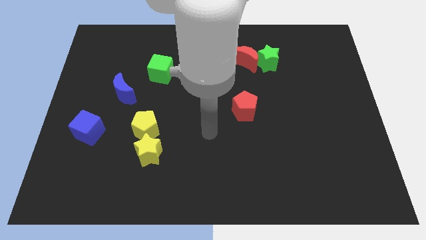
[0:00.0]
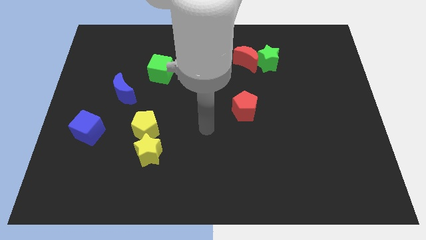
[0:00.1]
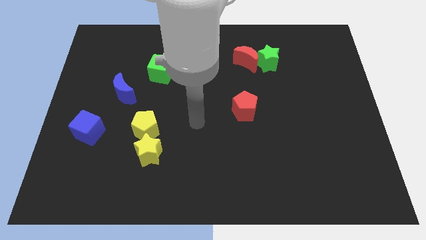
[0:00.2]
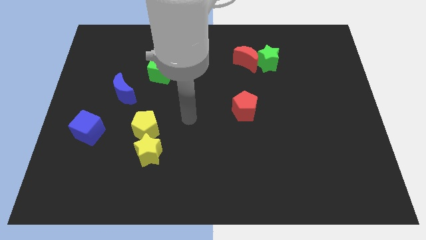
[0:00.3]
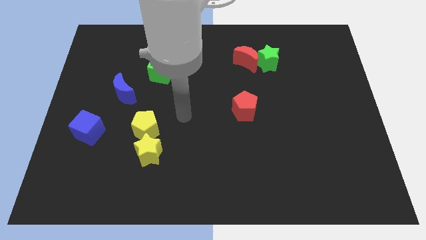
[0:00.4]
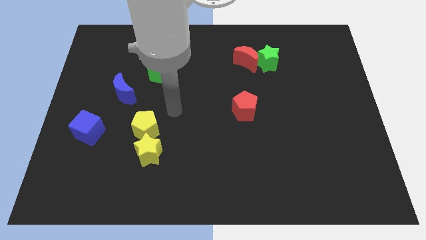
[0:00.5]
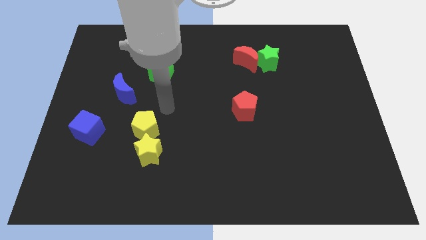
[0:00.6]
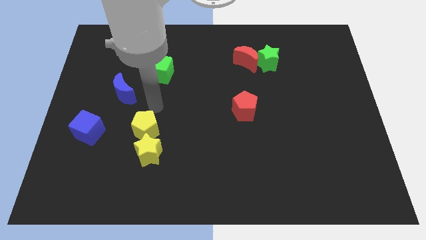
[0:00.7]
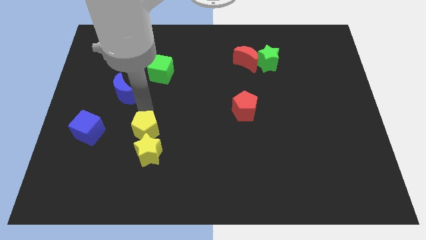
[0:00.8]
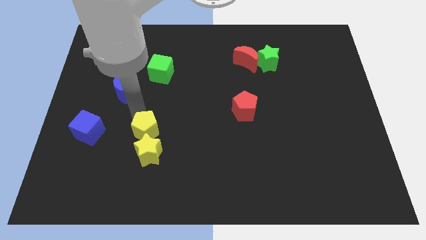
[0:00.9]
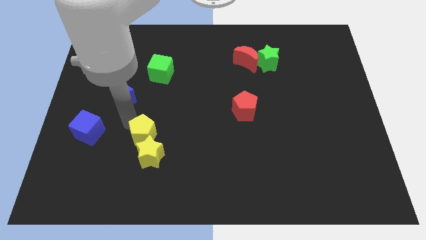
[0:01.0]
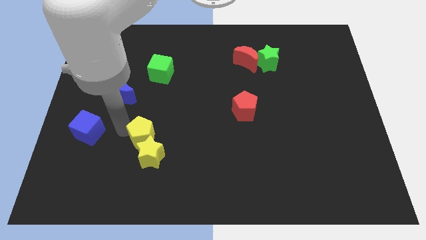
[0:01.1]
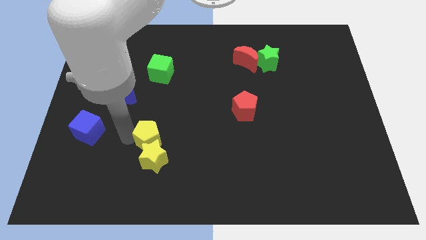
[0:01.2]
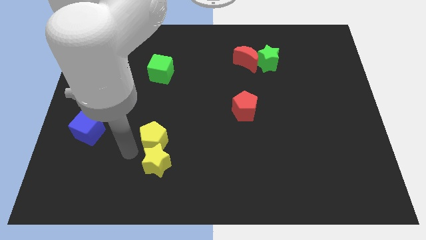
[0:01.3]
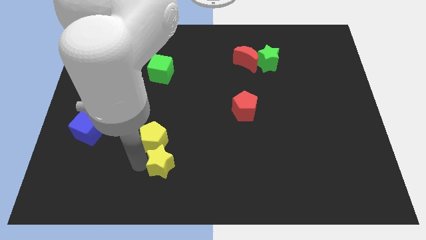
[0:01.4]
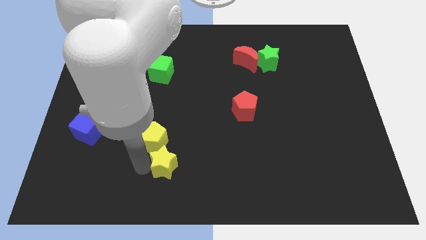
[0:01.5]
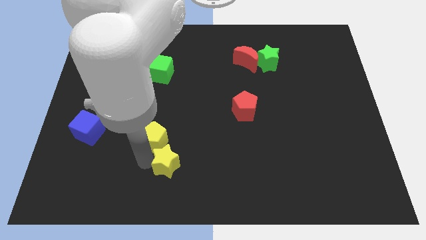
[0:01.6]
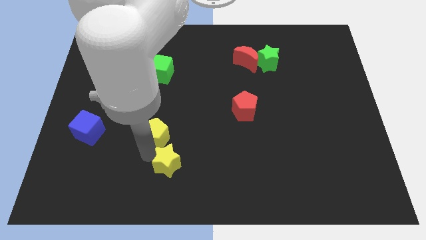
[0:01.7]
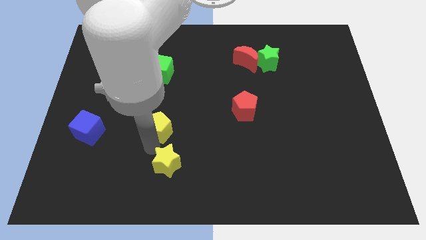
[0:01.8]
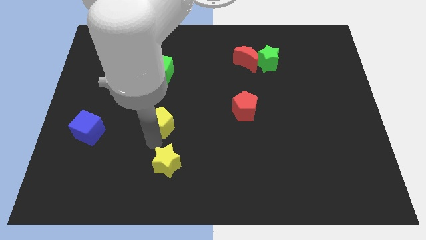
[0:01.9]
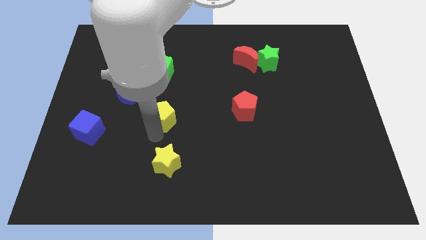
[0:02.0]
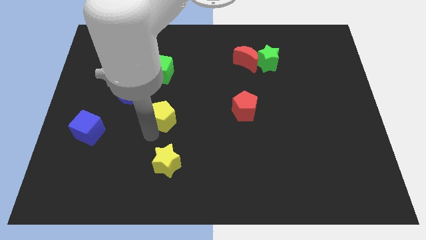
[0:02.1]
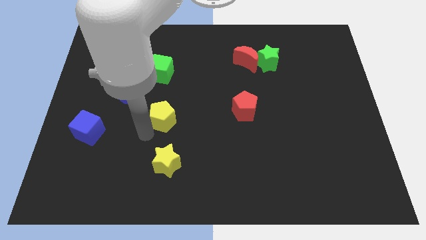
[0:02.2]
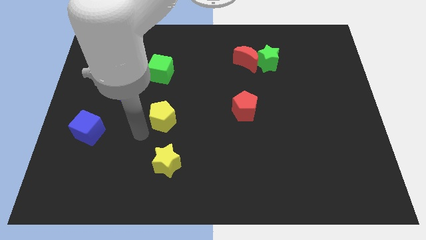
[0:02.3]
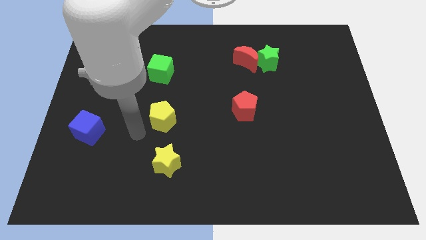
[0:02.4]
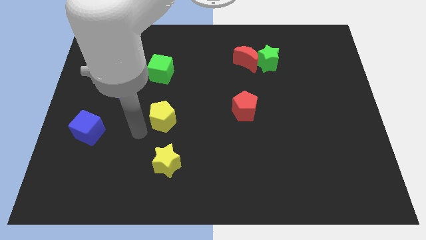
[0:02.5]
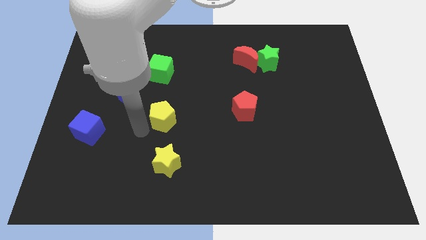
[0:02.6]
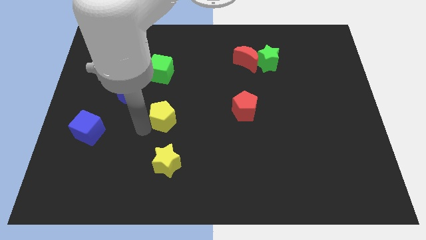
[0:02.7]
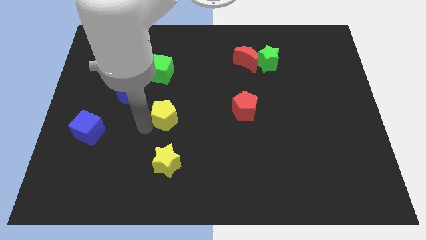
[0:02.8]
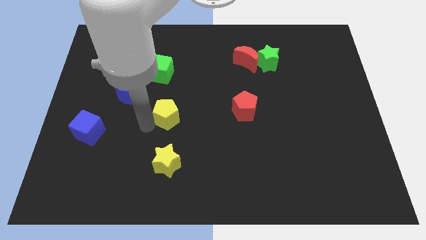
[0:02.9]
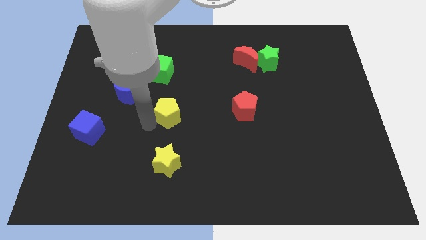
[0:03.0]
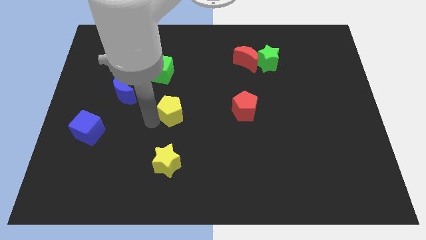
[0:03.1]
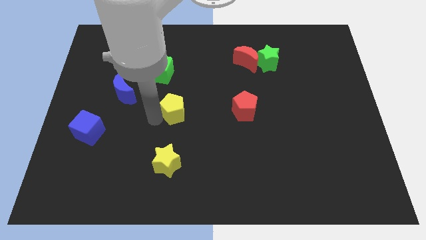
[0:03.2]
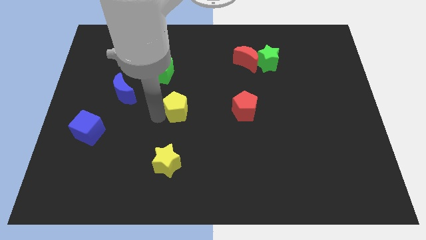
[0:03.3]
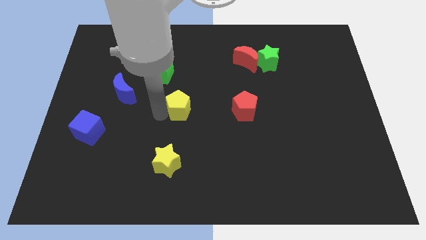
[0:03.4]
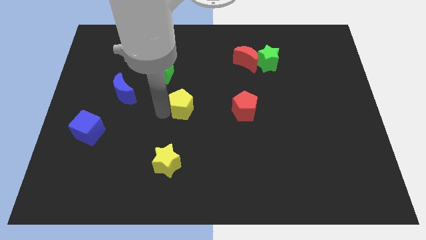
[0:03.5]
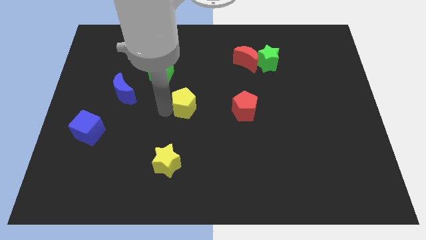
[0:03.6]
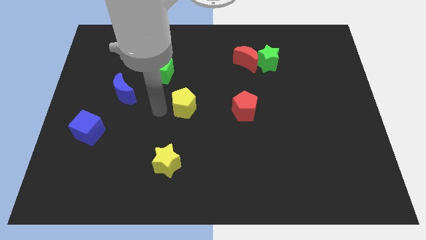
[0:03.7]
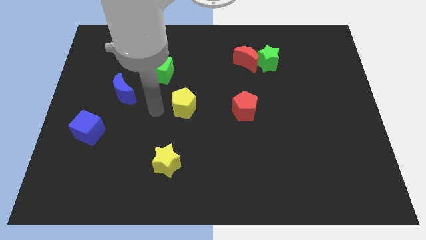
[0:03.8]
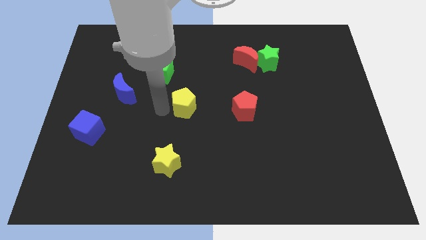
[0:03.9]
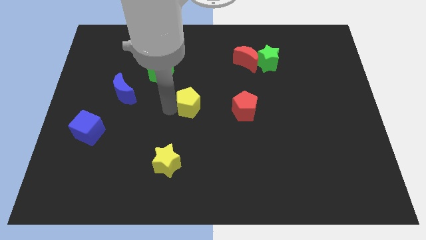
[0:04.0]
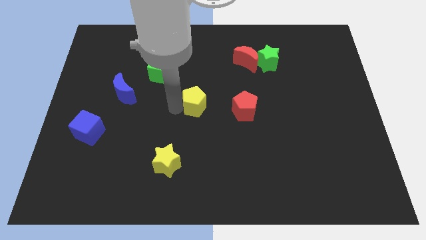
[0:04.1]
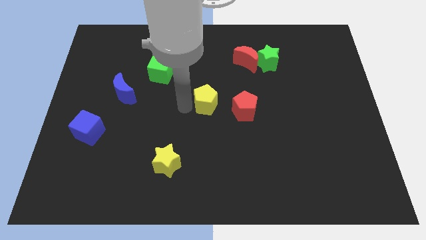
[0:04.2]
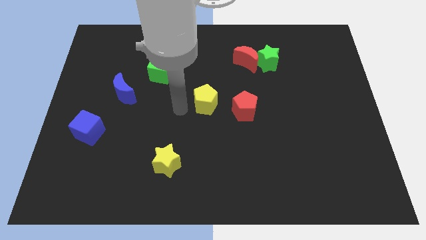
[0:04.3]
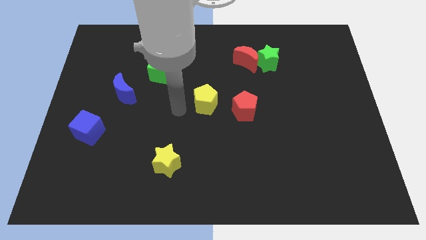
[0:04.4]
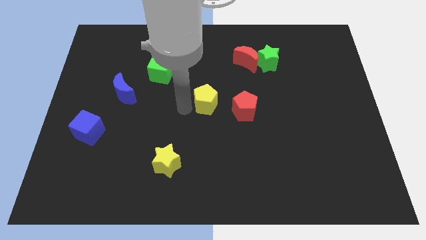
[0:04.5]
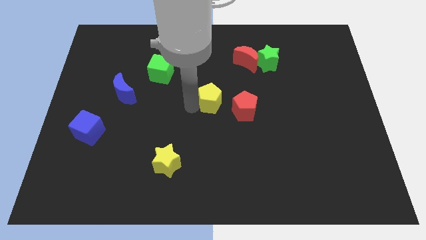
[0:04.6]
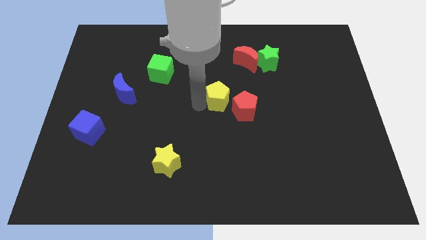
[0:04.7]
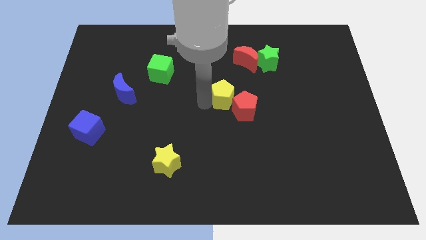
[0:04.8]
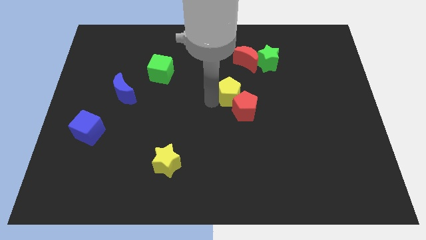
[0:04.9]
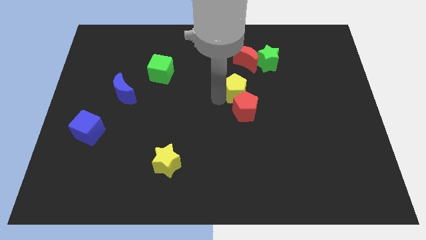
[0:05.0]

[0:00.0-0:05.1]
move the yellow pentagon to the bottom of the red moon

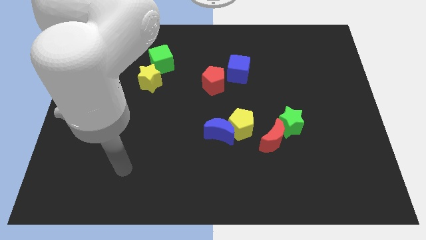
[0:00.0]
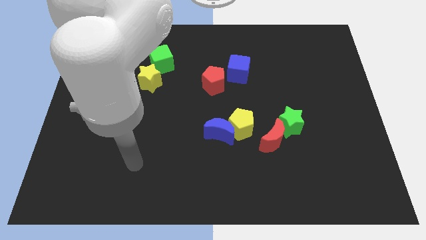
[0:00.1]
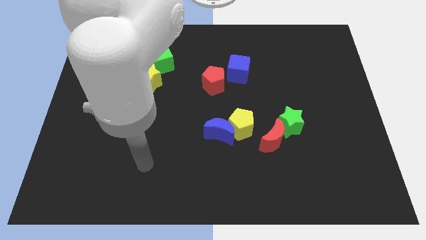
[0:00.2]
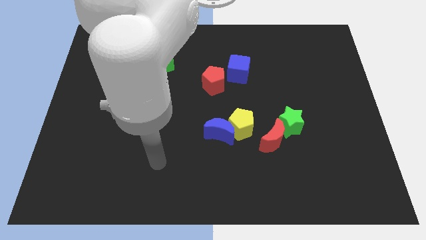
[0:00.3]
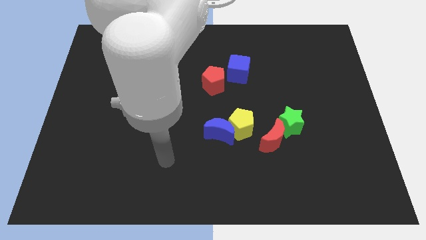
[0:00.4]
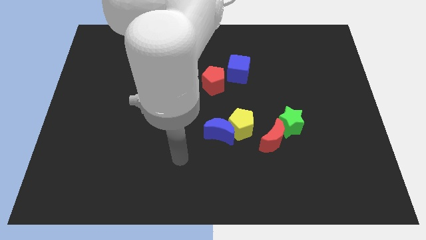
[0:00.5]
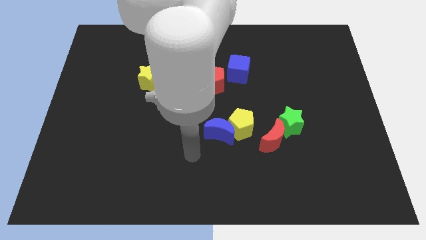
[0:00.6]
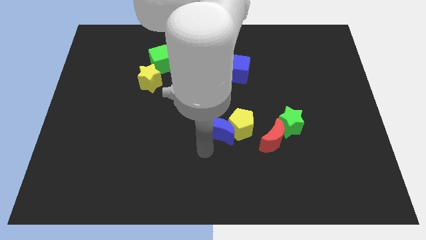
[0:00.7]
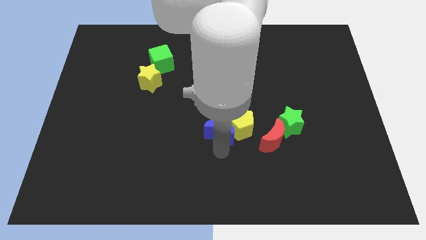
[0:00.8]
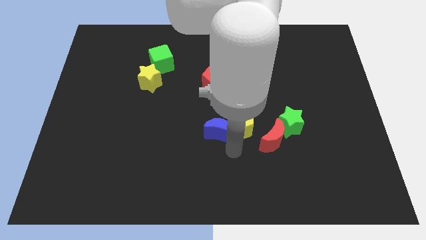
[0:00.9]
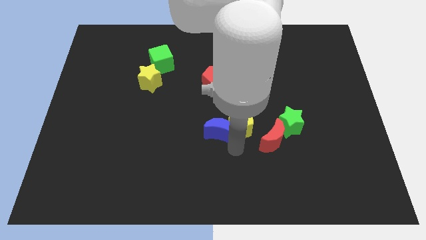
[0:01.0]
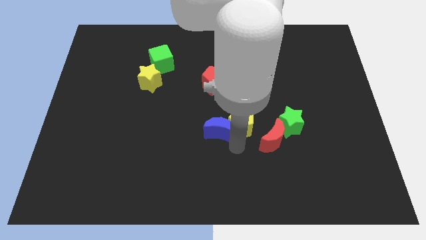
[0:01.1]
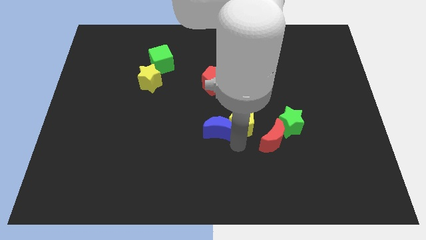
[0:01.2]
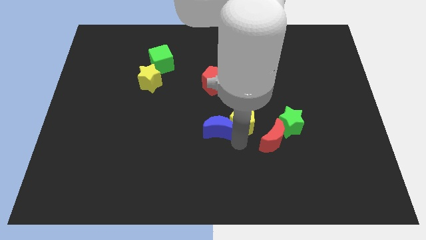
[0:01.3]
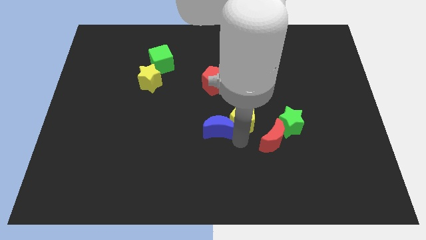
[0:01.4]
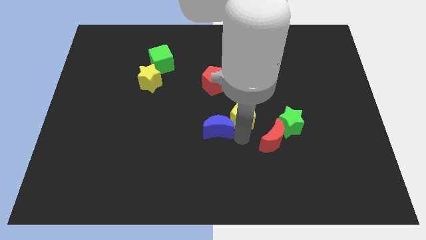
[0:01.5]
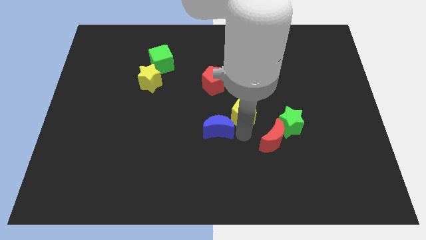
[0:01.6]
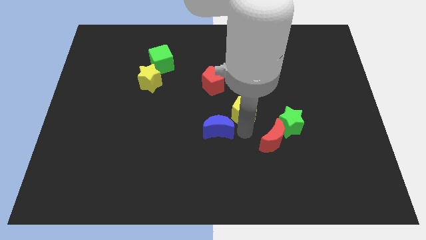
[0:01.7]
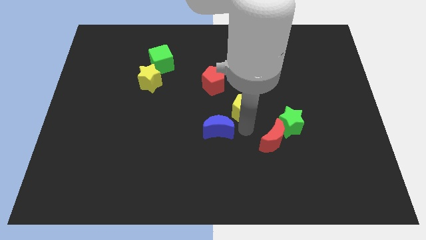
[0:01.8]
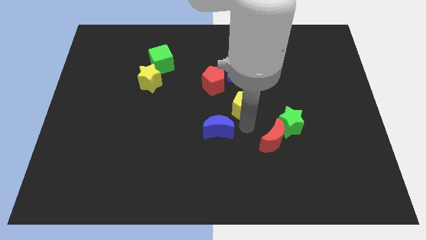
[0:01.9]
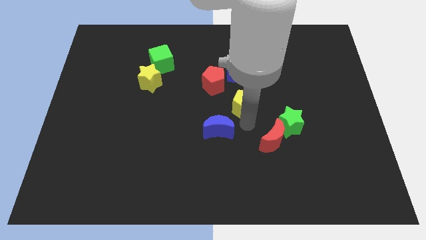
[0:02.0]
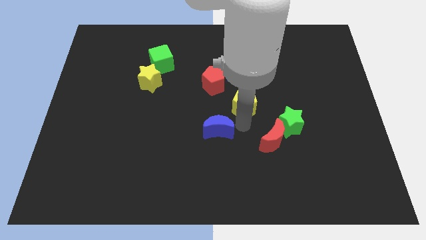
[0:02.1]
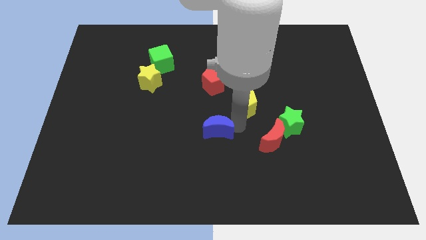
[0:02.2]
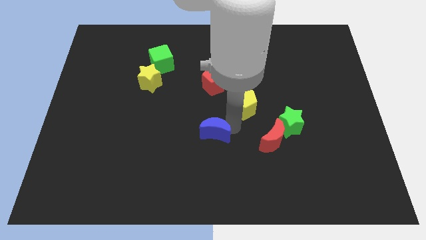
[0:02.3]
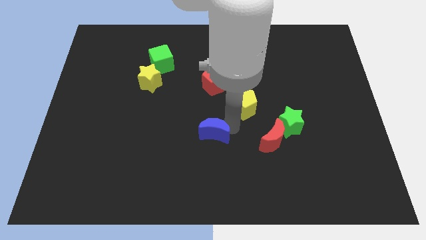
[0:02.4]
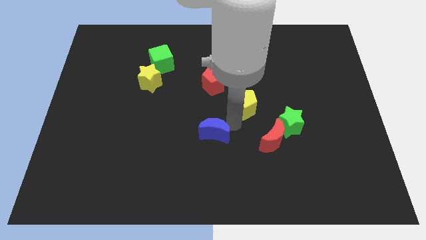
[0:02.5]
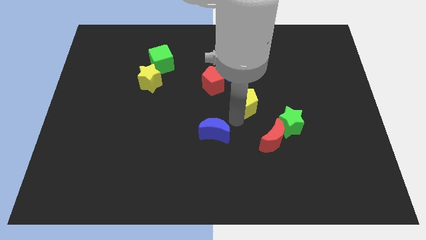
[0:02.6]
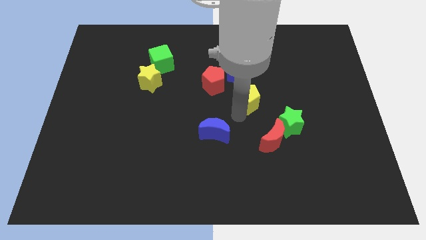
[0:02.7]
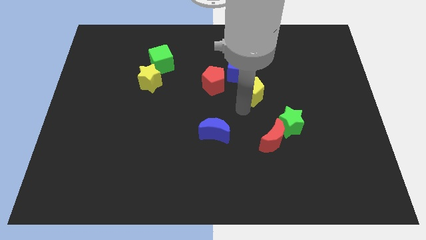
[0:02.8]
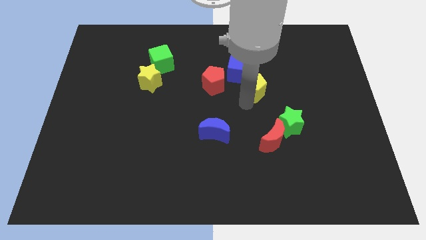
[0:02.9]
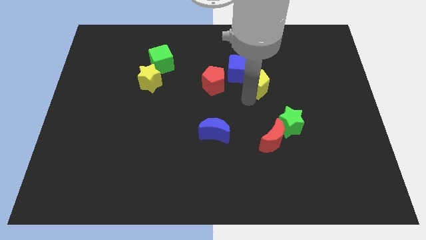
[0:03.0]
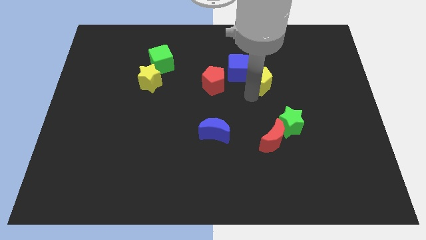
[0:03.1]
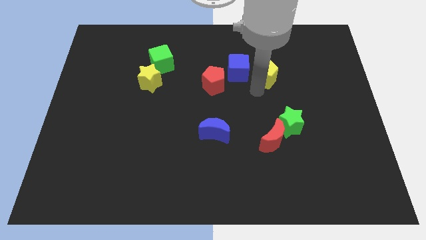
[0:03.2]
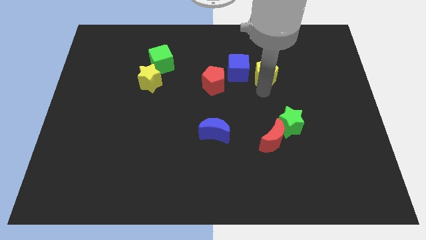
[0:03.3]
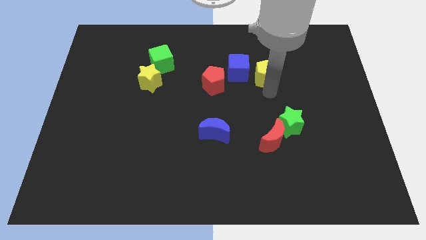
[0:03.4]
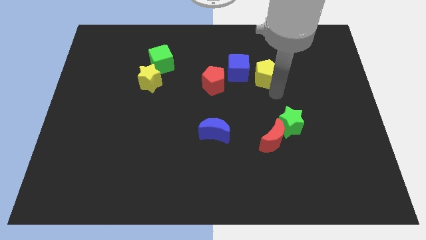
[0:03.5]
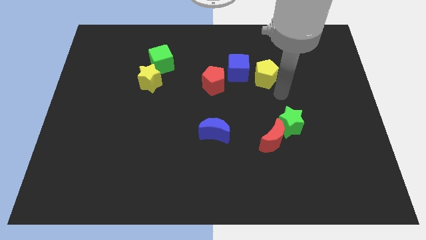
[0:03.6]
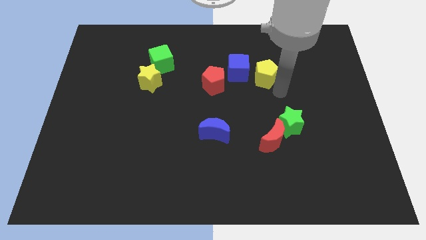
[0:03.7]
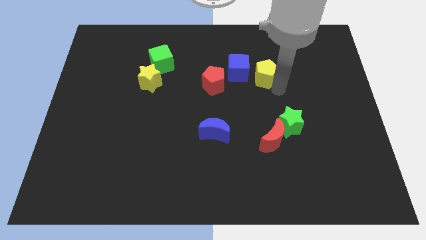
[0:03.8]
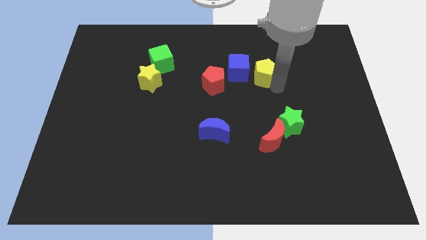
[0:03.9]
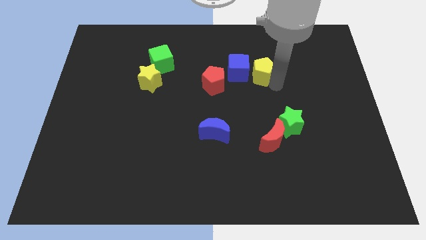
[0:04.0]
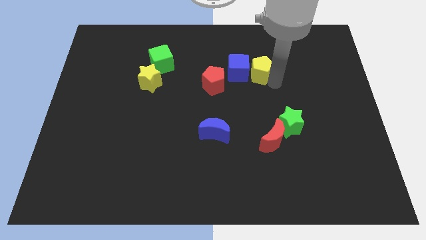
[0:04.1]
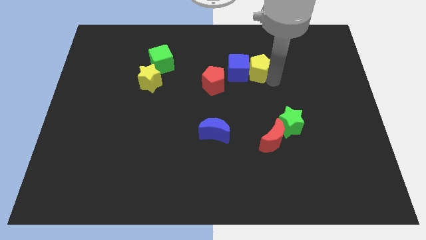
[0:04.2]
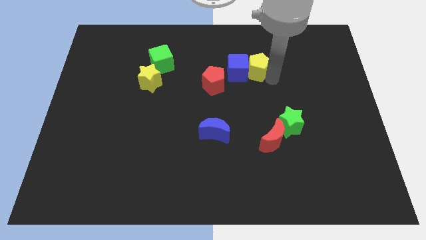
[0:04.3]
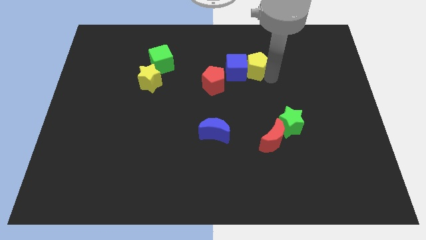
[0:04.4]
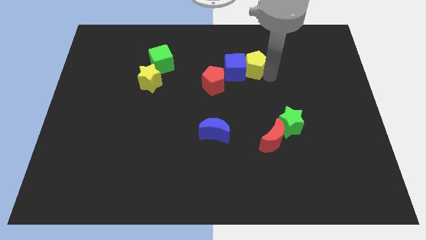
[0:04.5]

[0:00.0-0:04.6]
push the yellow pentagon diagonally up and to the right of the red pentagon
